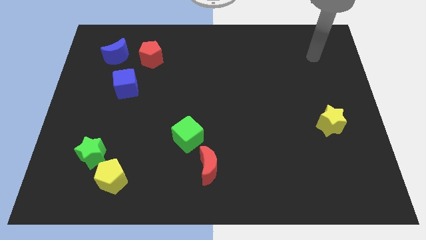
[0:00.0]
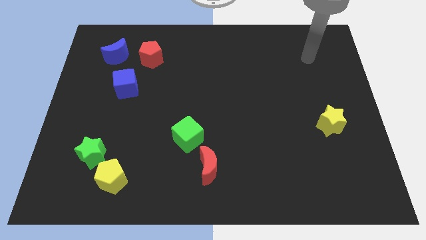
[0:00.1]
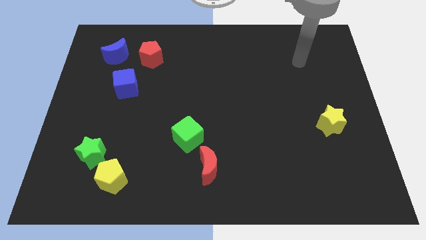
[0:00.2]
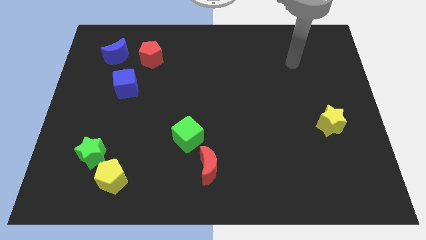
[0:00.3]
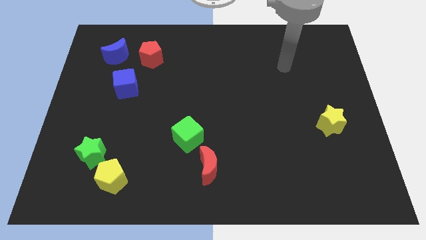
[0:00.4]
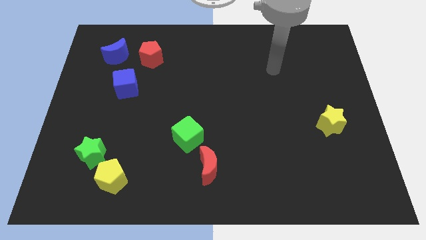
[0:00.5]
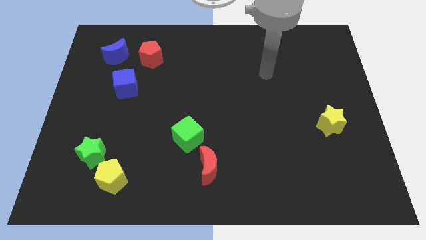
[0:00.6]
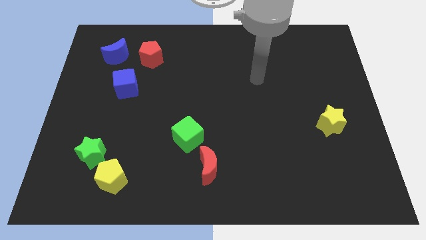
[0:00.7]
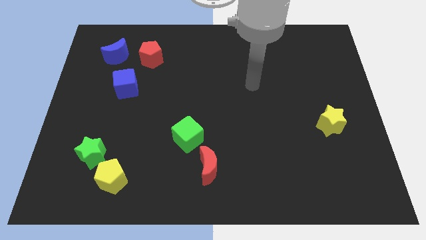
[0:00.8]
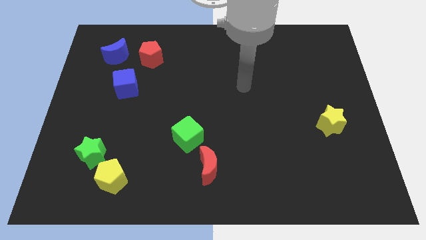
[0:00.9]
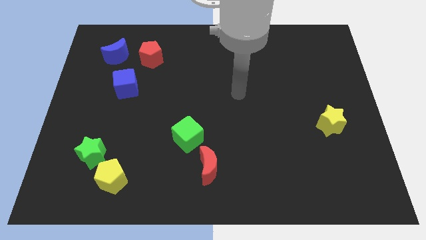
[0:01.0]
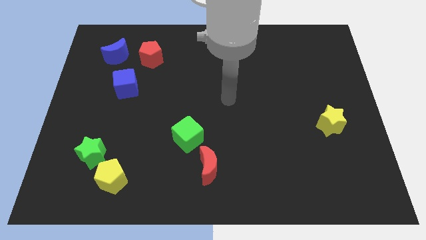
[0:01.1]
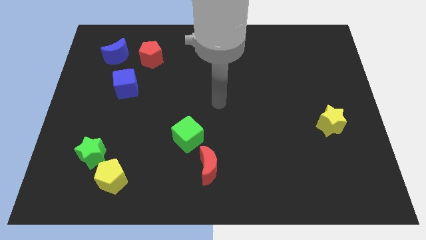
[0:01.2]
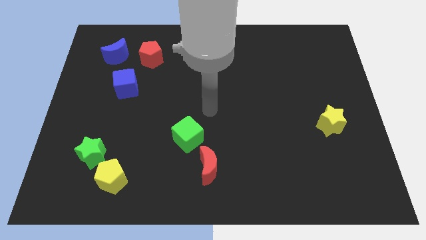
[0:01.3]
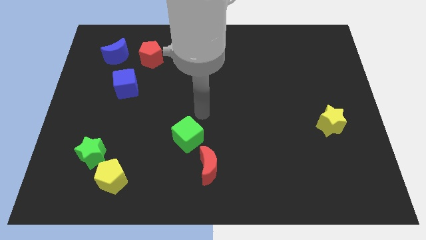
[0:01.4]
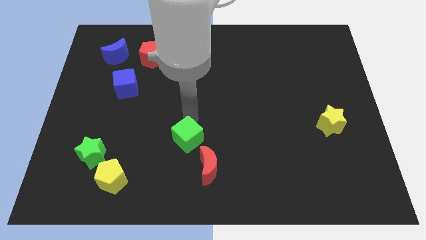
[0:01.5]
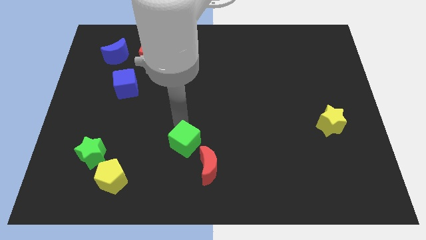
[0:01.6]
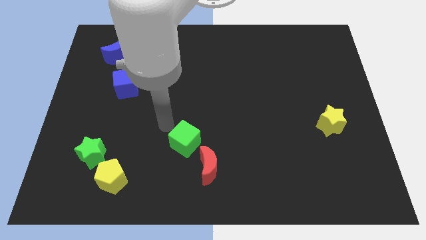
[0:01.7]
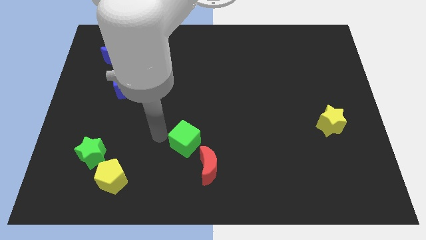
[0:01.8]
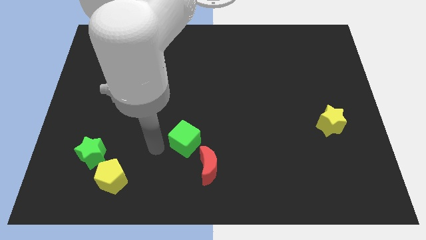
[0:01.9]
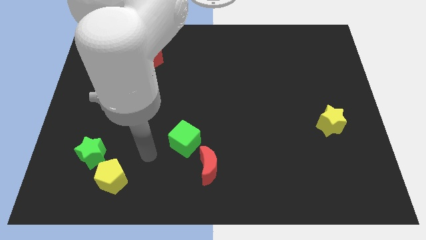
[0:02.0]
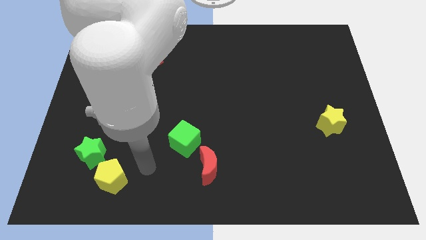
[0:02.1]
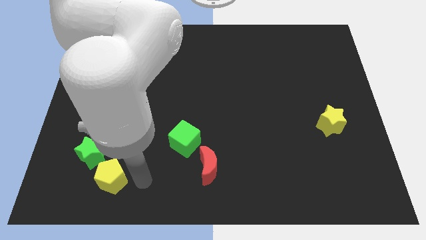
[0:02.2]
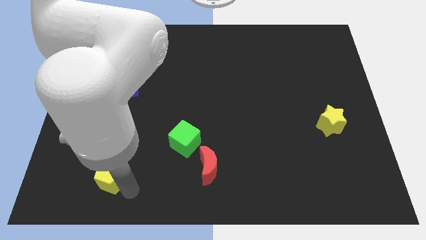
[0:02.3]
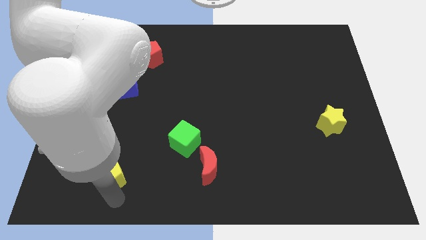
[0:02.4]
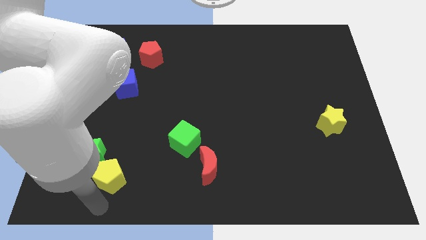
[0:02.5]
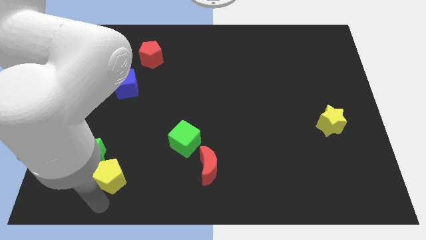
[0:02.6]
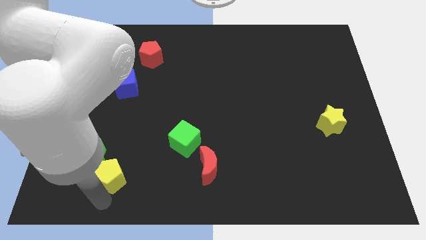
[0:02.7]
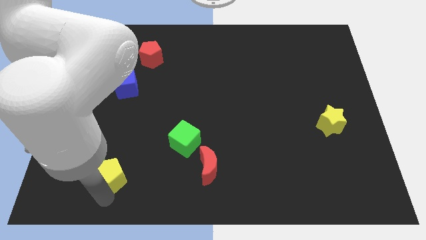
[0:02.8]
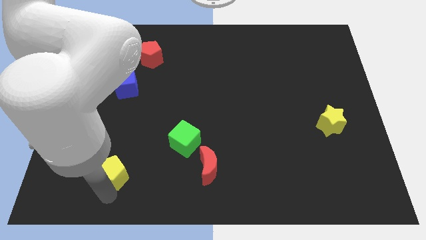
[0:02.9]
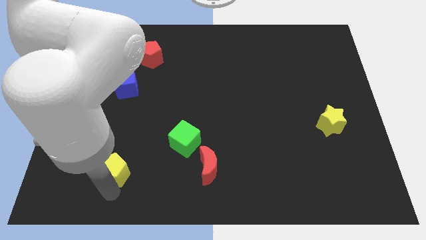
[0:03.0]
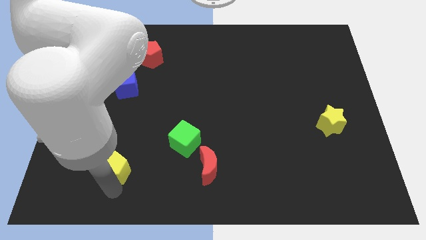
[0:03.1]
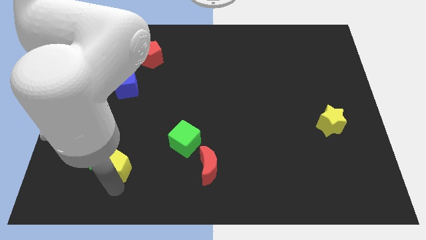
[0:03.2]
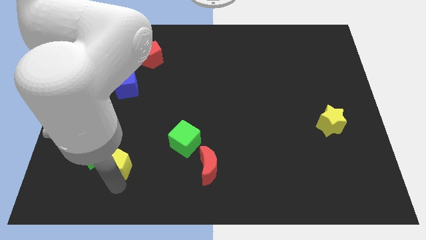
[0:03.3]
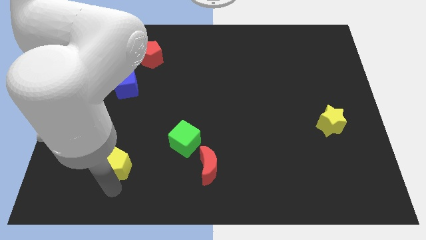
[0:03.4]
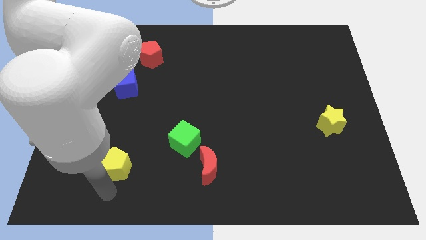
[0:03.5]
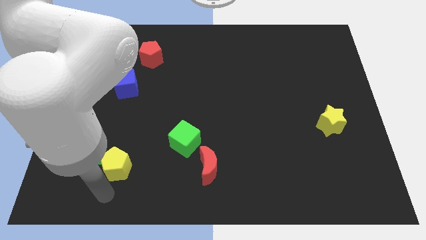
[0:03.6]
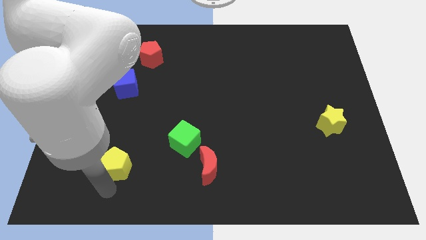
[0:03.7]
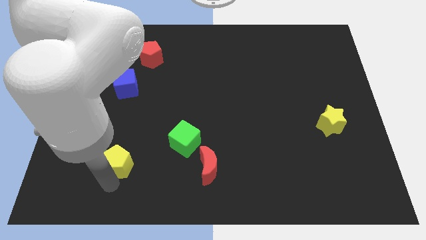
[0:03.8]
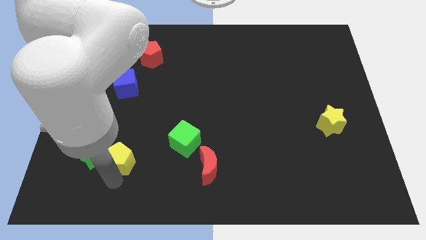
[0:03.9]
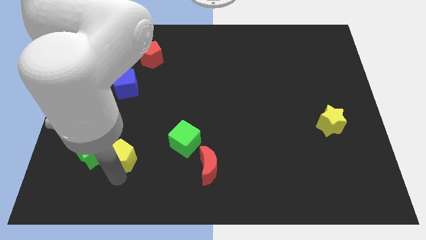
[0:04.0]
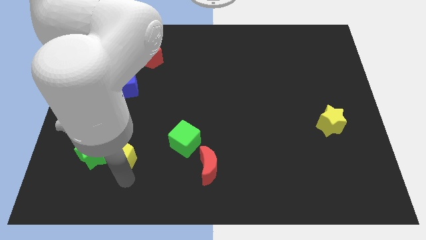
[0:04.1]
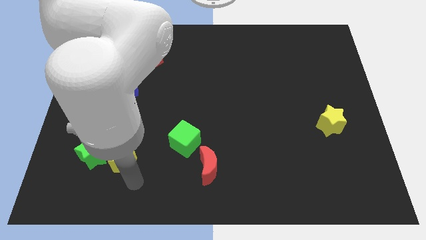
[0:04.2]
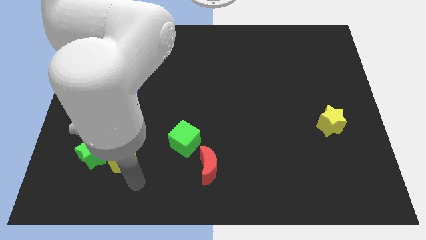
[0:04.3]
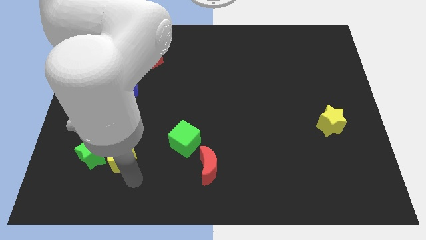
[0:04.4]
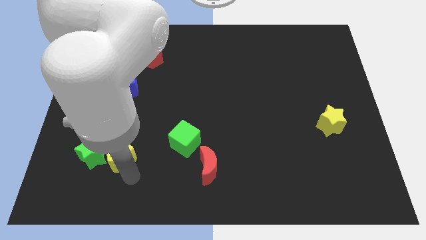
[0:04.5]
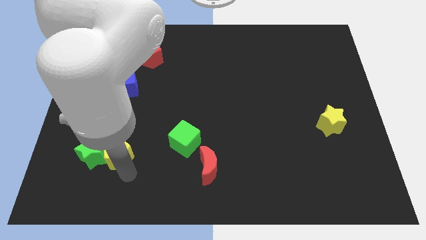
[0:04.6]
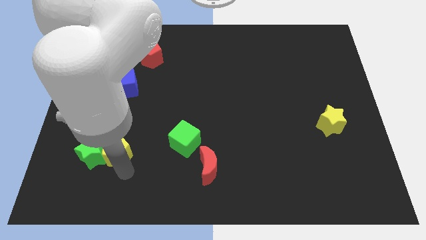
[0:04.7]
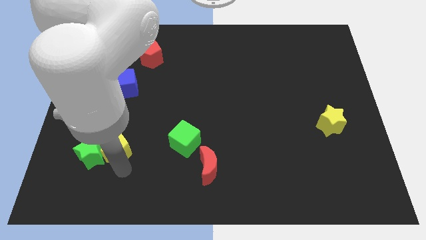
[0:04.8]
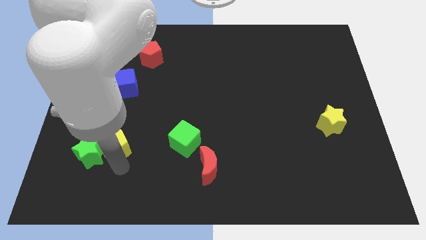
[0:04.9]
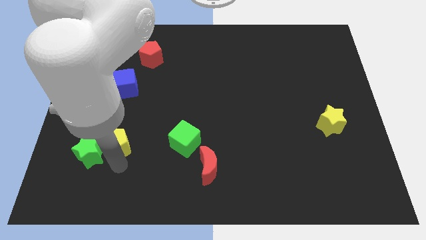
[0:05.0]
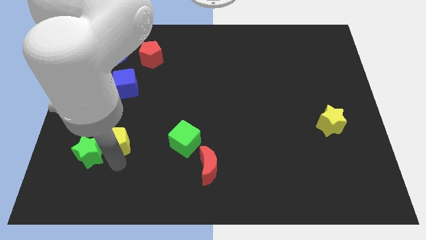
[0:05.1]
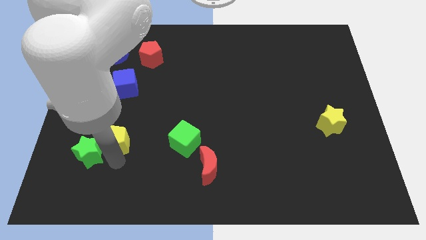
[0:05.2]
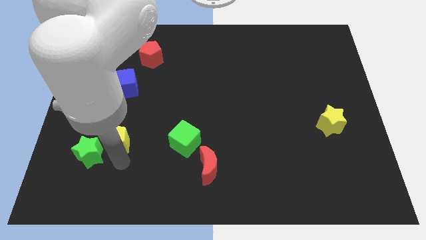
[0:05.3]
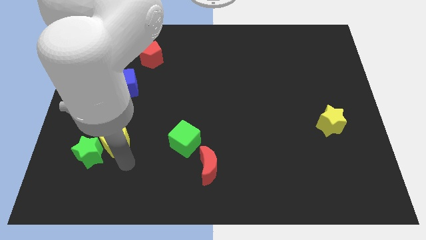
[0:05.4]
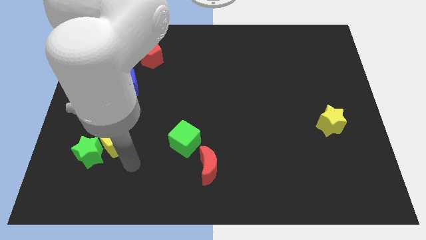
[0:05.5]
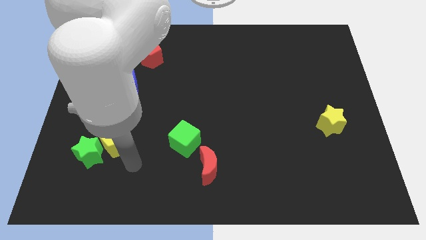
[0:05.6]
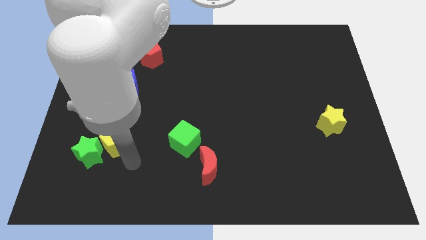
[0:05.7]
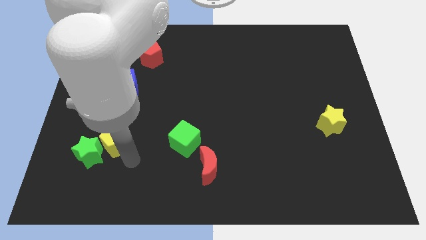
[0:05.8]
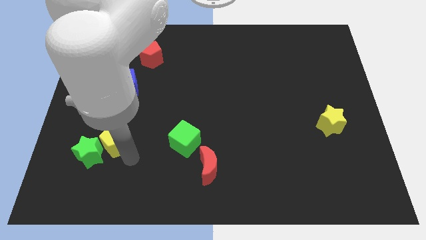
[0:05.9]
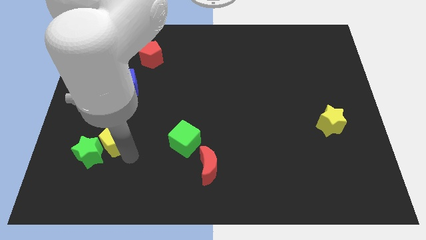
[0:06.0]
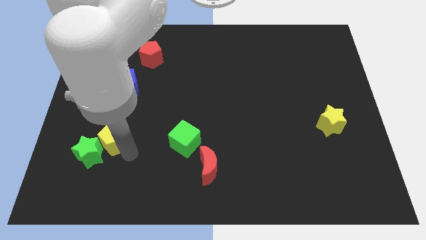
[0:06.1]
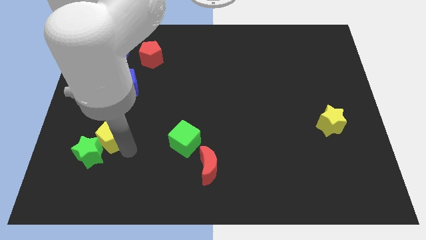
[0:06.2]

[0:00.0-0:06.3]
push the yellow pentagon to the top of the green star
